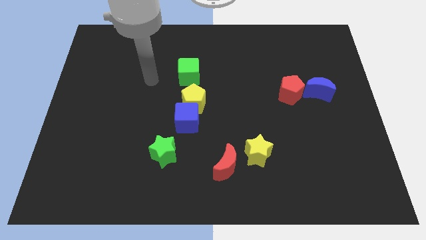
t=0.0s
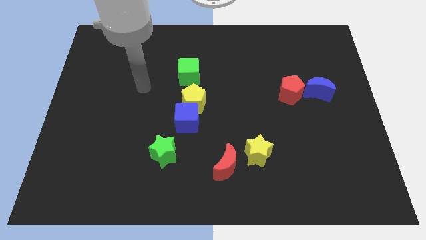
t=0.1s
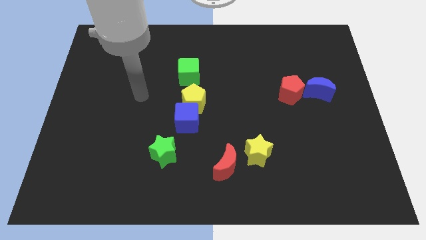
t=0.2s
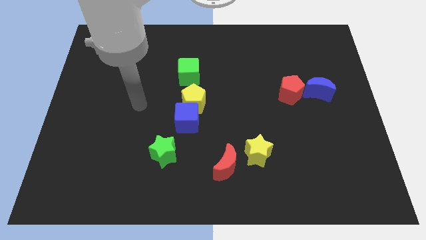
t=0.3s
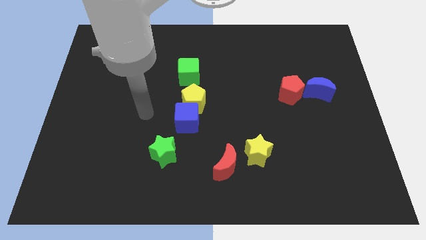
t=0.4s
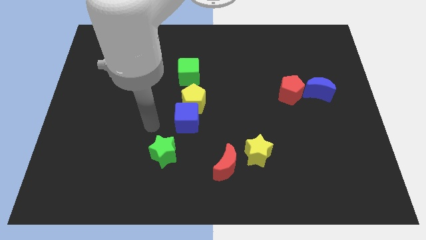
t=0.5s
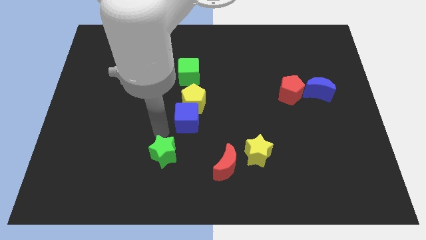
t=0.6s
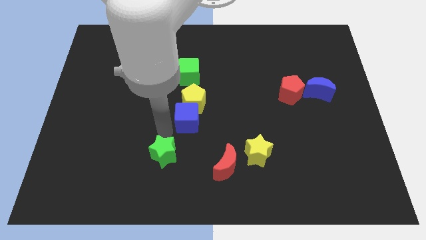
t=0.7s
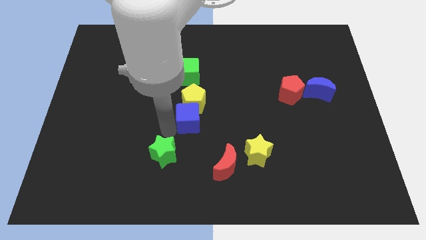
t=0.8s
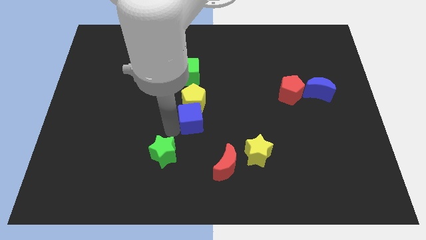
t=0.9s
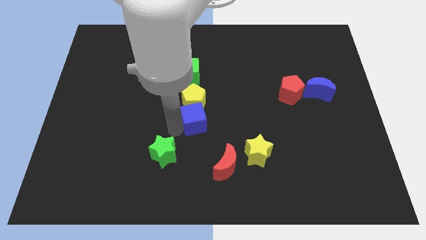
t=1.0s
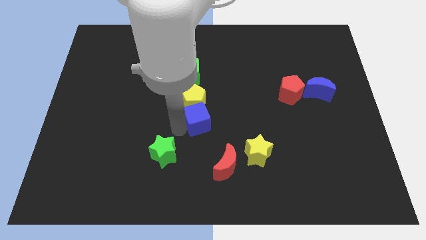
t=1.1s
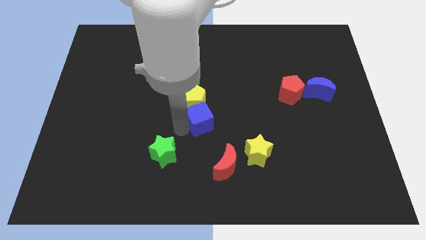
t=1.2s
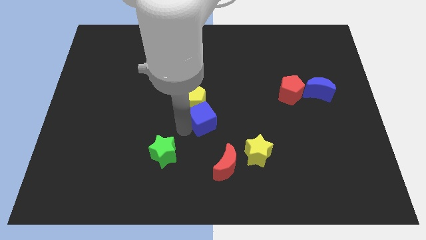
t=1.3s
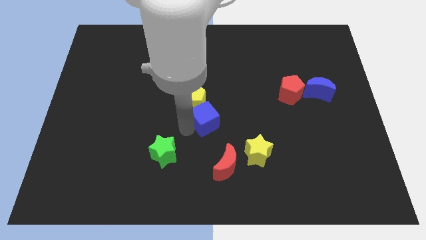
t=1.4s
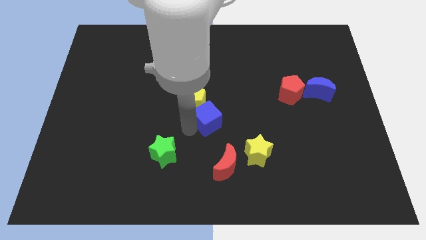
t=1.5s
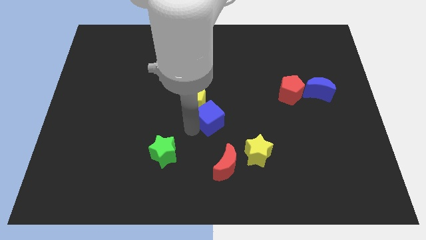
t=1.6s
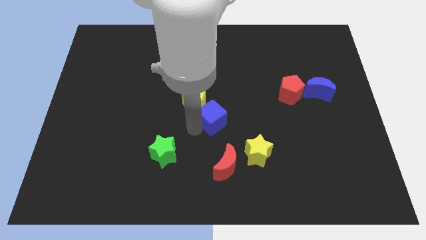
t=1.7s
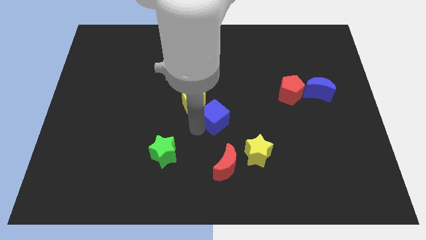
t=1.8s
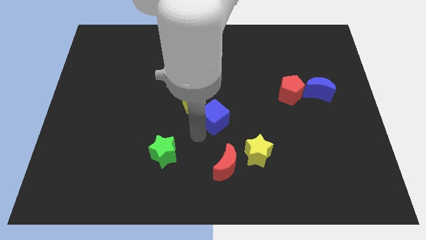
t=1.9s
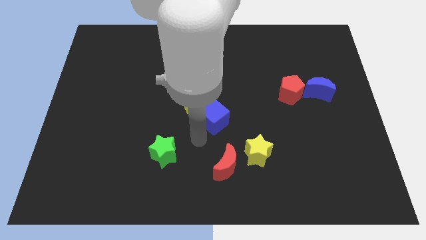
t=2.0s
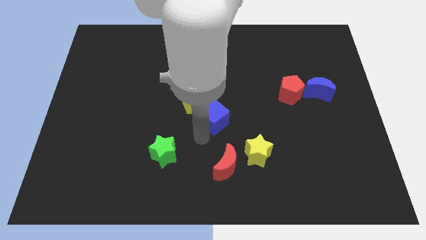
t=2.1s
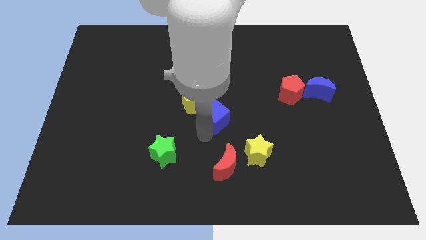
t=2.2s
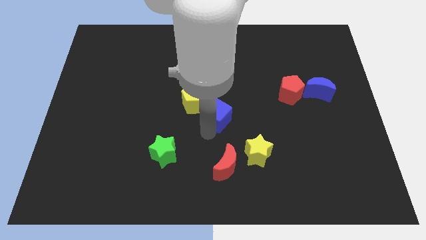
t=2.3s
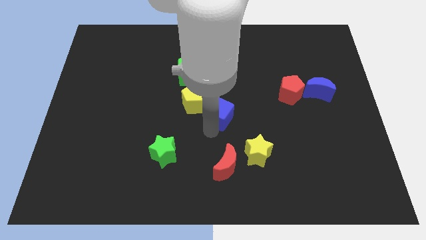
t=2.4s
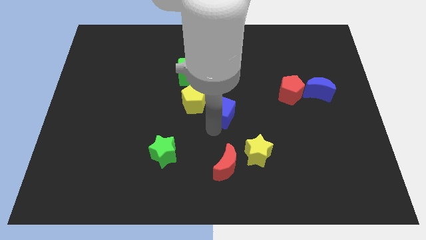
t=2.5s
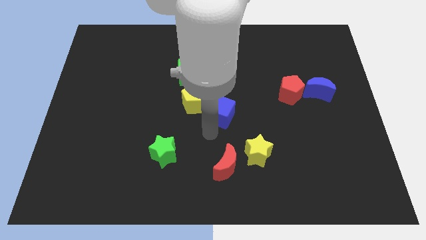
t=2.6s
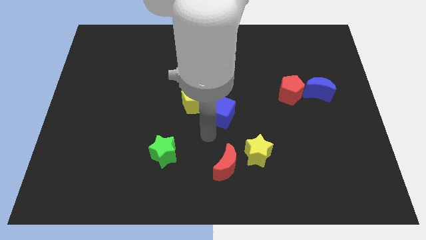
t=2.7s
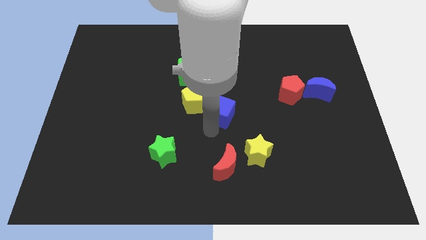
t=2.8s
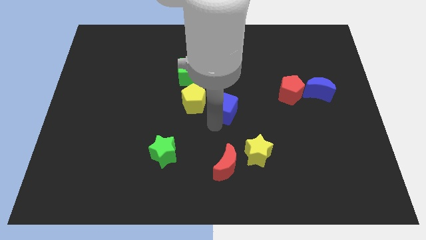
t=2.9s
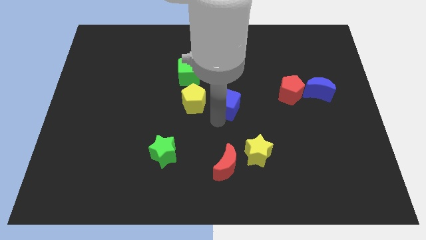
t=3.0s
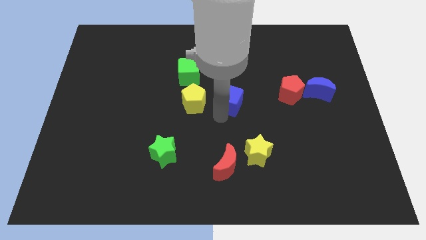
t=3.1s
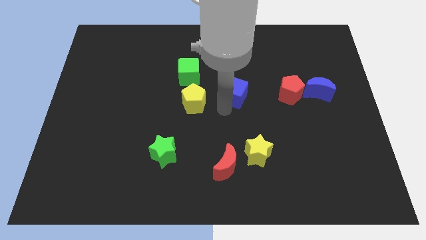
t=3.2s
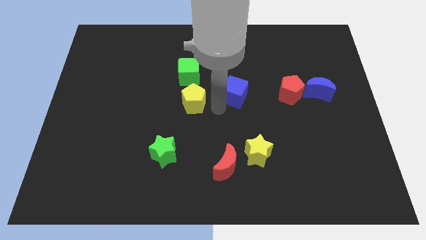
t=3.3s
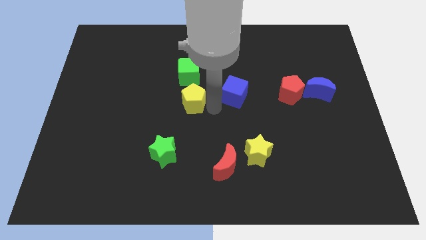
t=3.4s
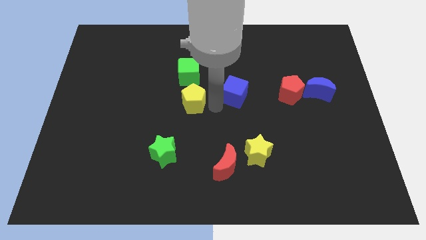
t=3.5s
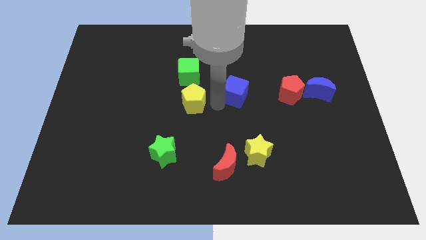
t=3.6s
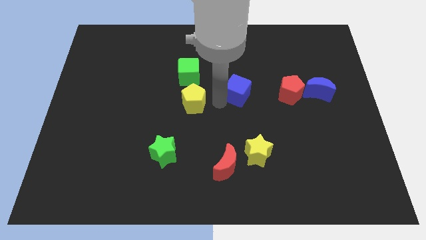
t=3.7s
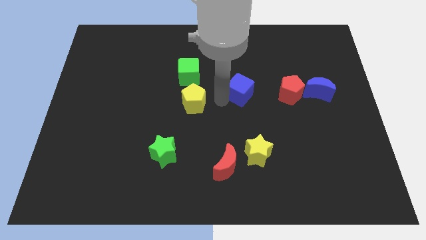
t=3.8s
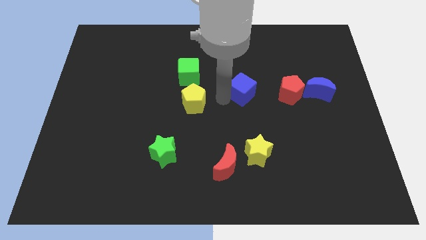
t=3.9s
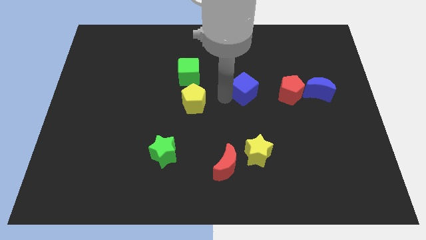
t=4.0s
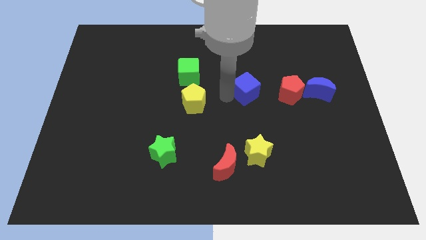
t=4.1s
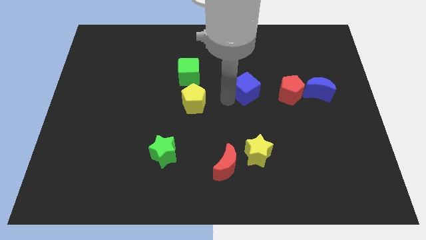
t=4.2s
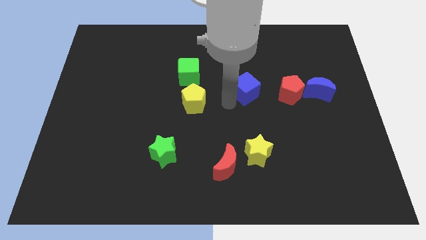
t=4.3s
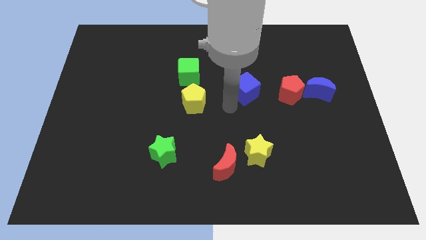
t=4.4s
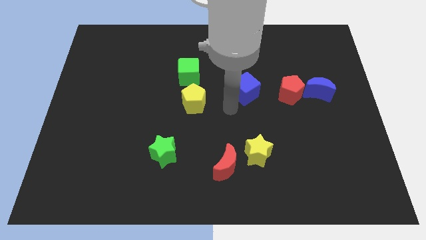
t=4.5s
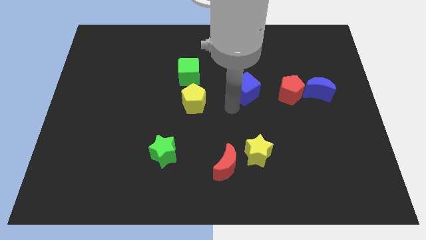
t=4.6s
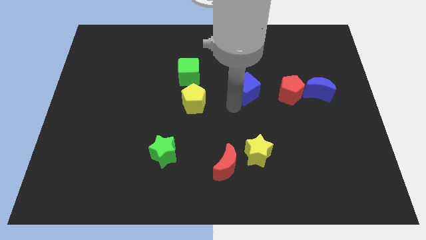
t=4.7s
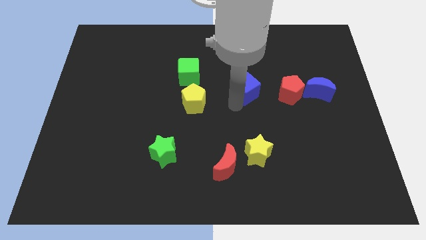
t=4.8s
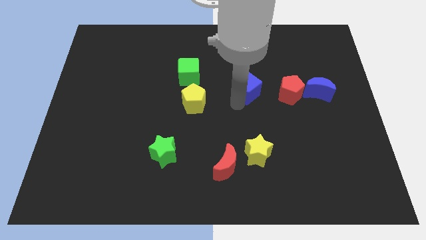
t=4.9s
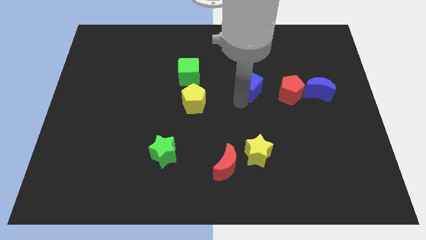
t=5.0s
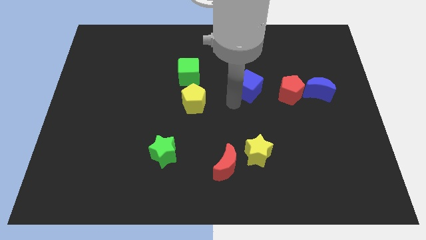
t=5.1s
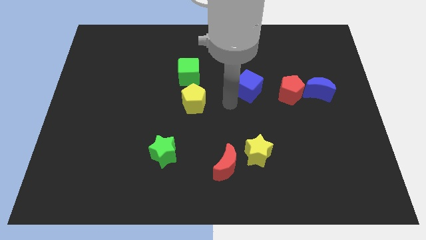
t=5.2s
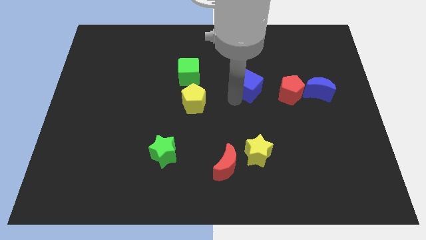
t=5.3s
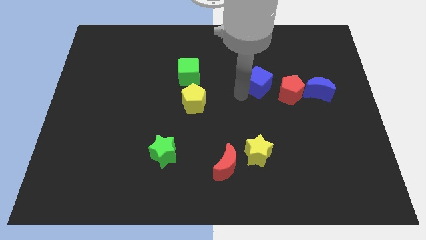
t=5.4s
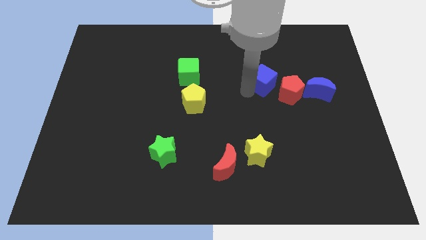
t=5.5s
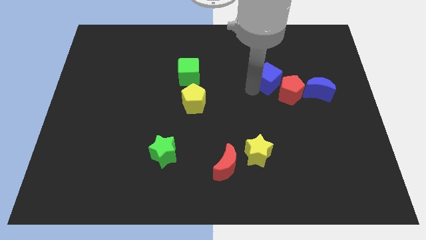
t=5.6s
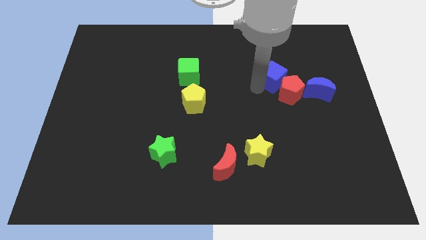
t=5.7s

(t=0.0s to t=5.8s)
slide the blue cube to the top side of the red pentagon

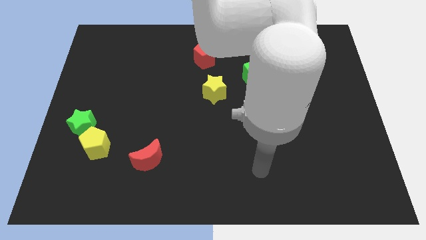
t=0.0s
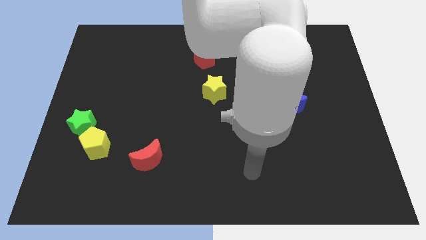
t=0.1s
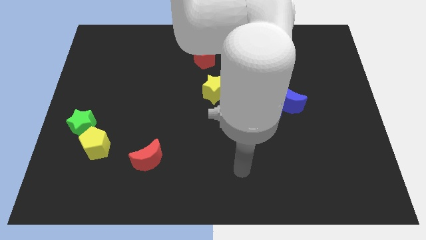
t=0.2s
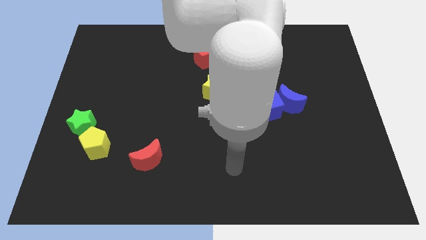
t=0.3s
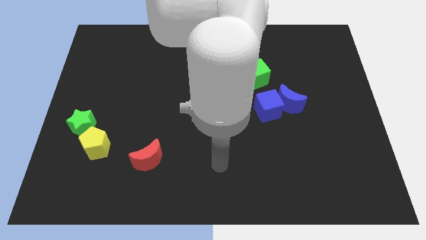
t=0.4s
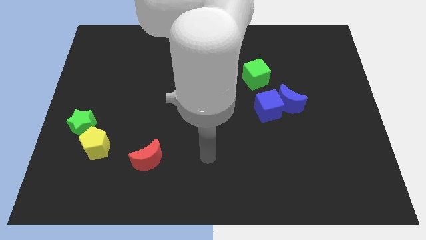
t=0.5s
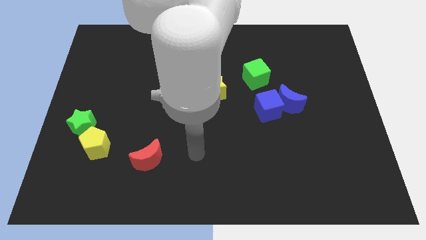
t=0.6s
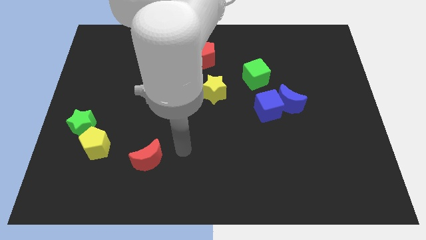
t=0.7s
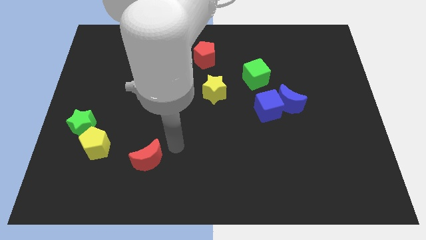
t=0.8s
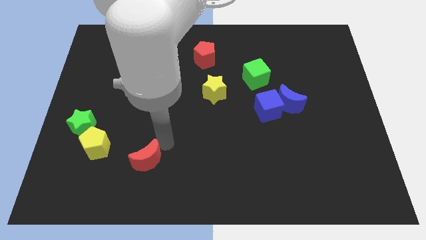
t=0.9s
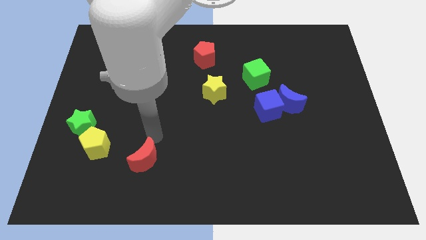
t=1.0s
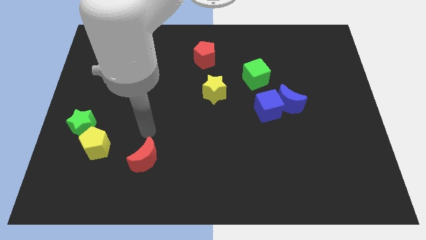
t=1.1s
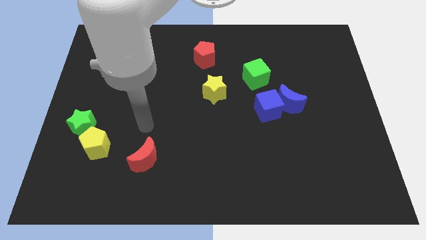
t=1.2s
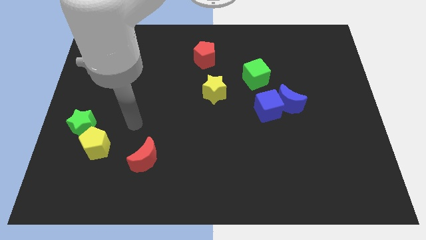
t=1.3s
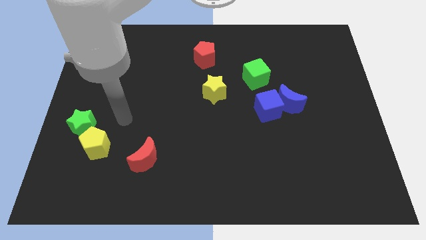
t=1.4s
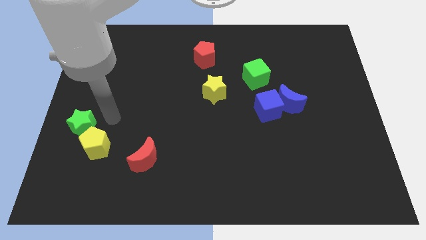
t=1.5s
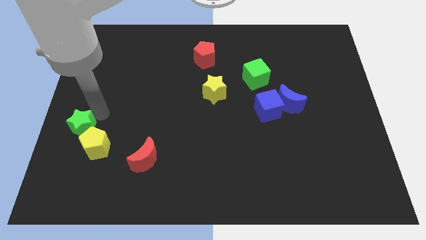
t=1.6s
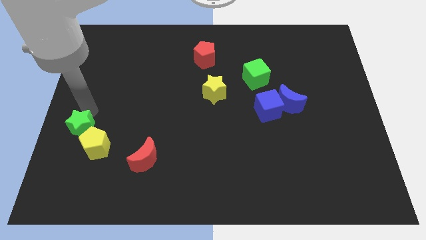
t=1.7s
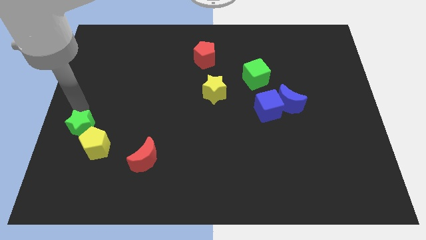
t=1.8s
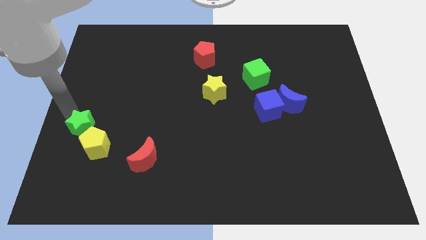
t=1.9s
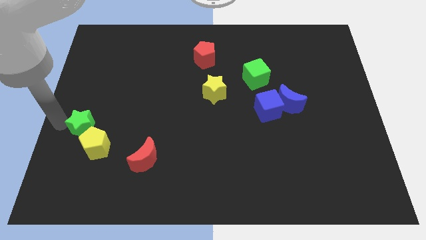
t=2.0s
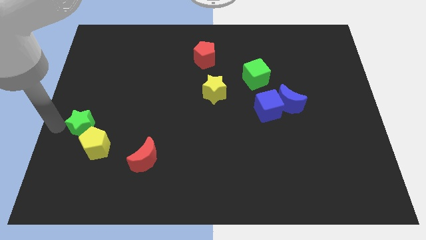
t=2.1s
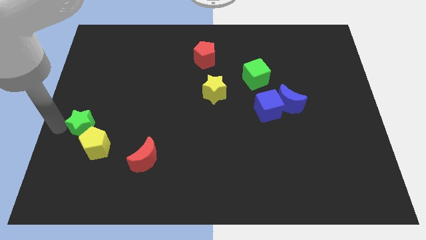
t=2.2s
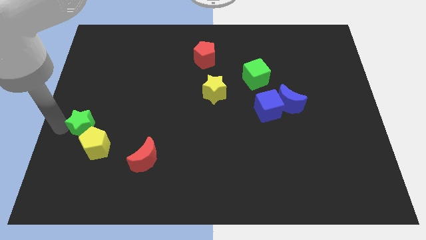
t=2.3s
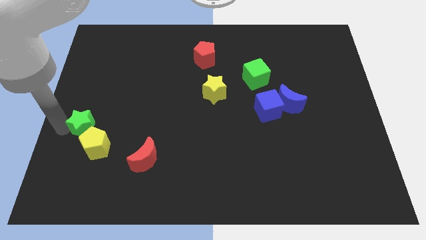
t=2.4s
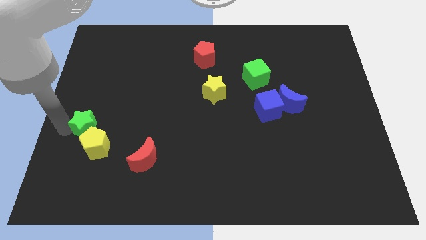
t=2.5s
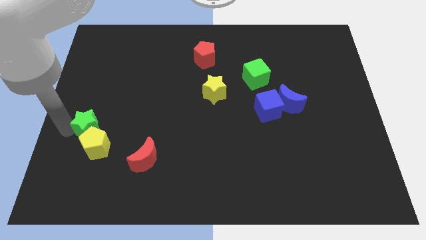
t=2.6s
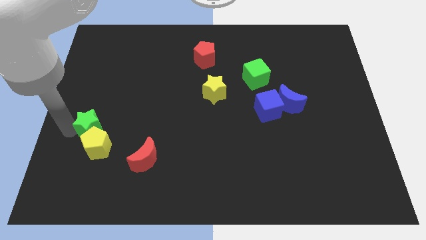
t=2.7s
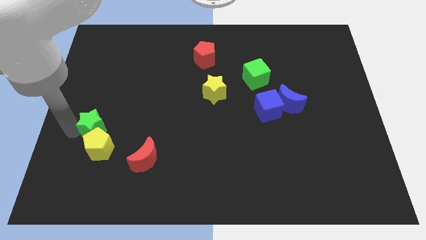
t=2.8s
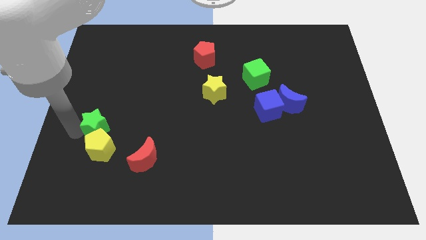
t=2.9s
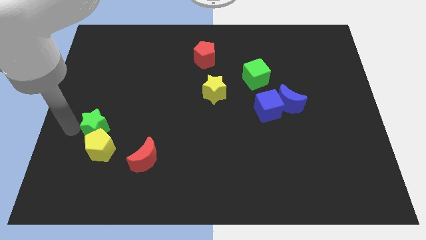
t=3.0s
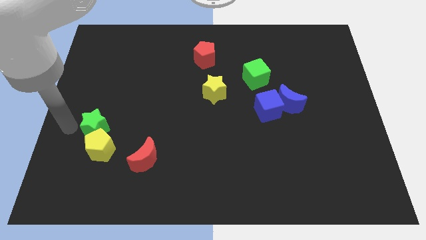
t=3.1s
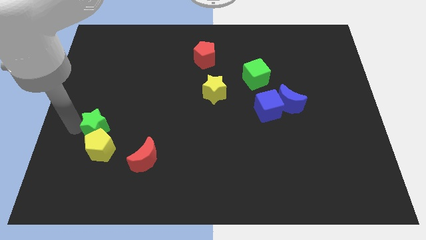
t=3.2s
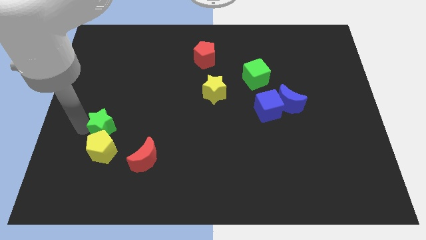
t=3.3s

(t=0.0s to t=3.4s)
move the green star to the top right side of the yellow pentagon
